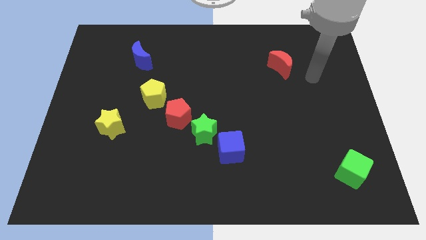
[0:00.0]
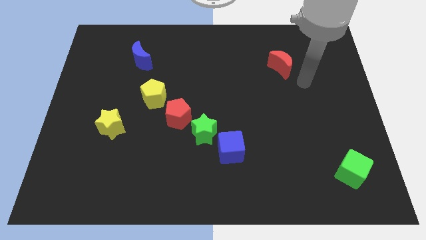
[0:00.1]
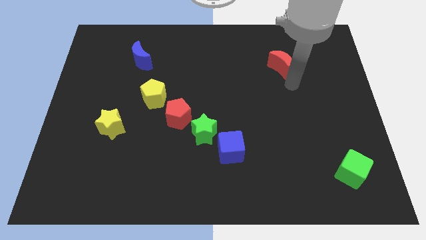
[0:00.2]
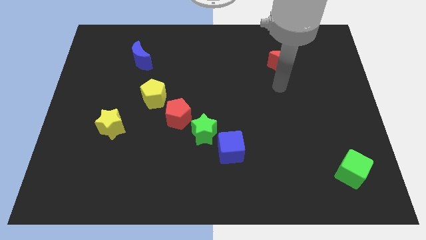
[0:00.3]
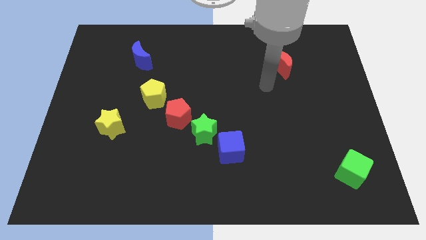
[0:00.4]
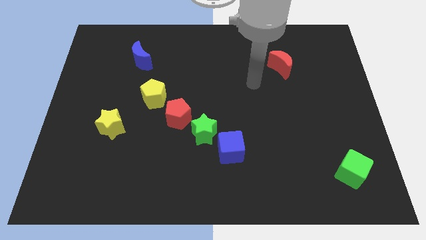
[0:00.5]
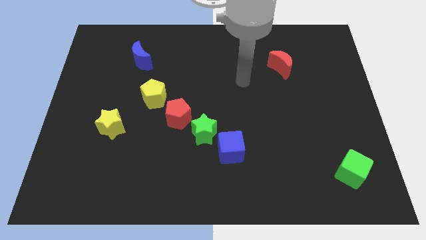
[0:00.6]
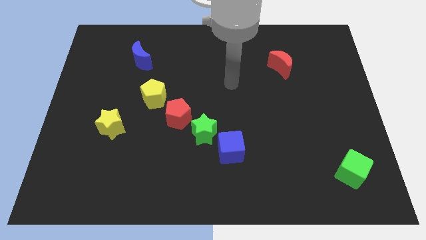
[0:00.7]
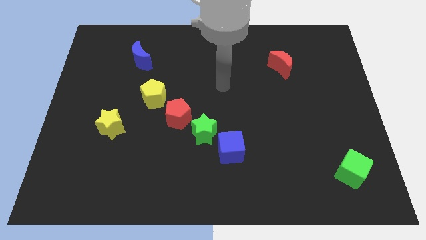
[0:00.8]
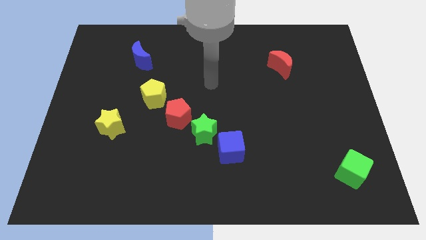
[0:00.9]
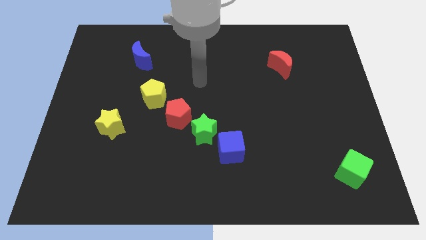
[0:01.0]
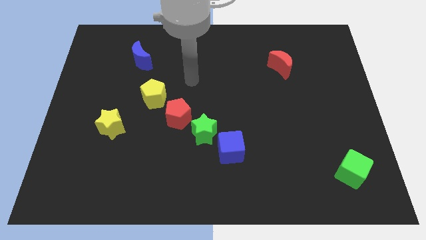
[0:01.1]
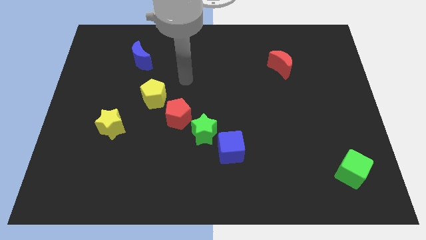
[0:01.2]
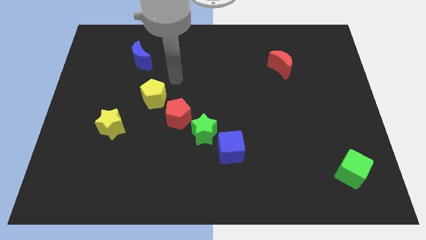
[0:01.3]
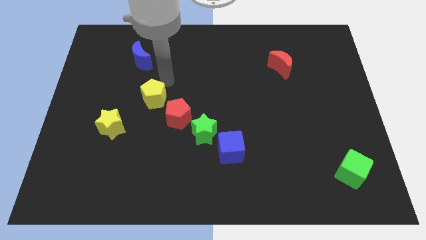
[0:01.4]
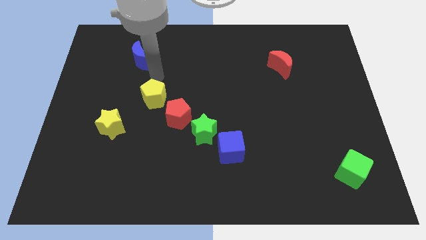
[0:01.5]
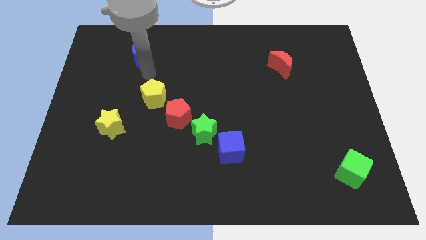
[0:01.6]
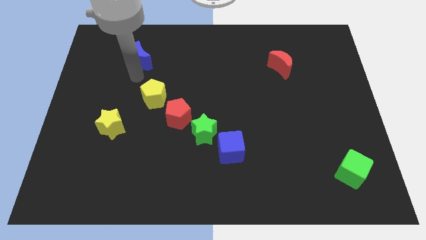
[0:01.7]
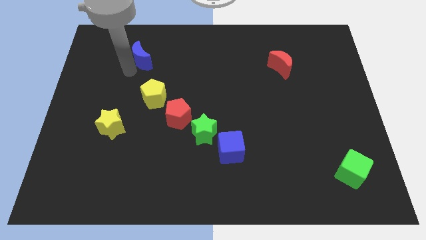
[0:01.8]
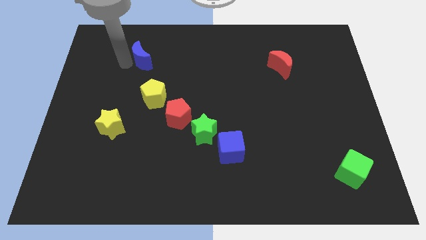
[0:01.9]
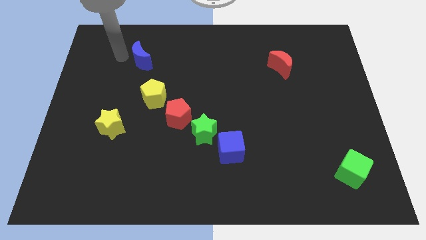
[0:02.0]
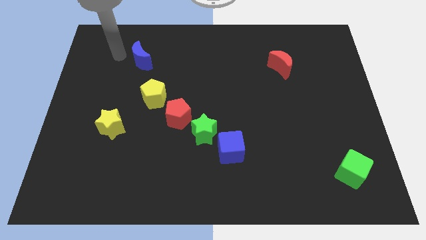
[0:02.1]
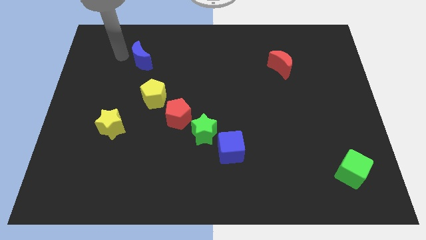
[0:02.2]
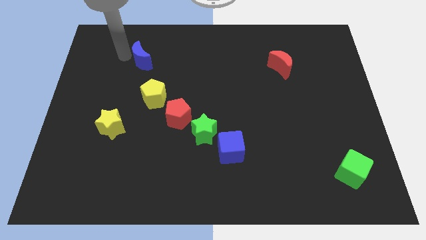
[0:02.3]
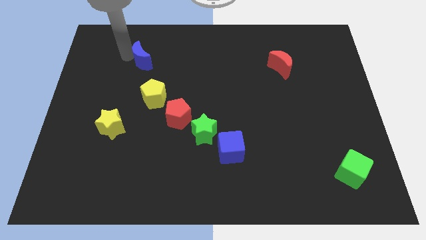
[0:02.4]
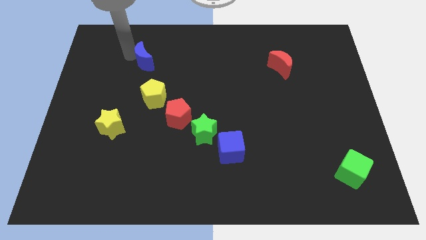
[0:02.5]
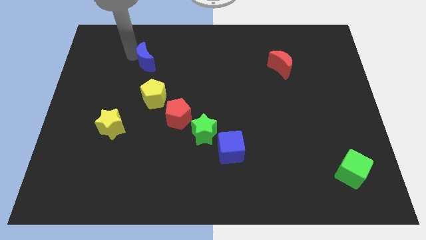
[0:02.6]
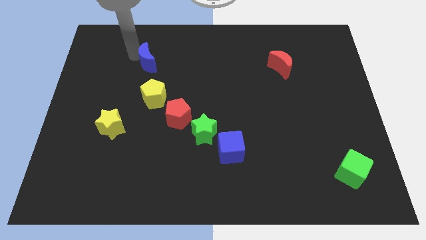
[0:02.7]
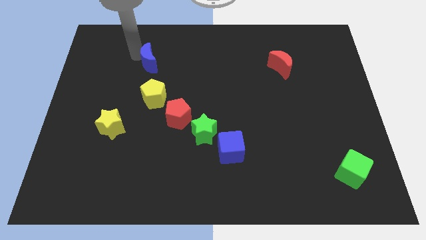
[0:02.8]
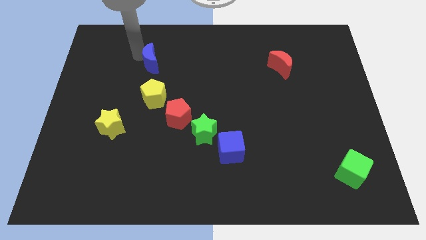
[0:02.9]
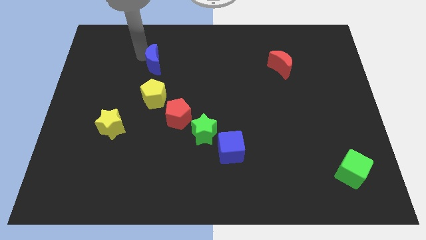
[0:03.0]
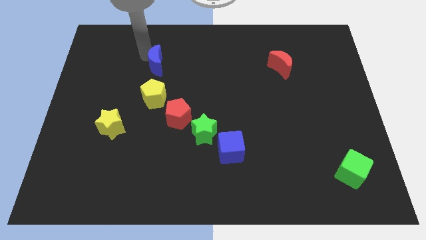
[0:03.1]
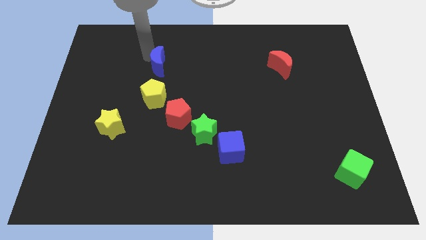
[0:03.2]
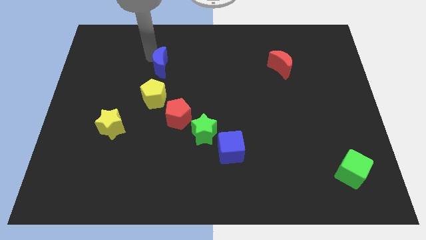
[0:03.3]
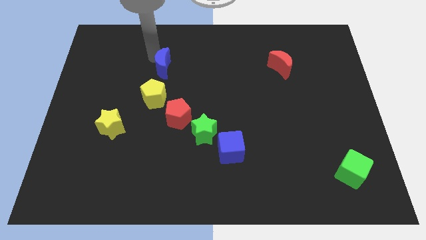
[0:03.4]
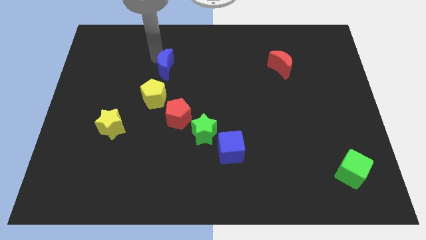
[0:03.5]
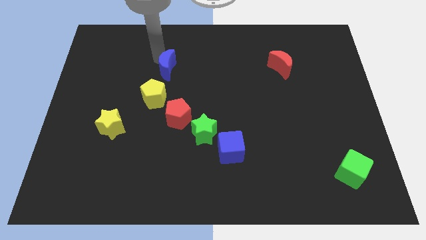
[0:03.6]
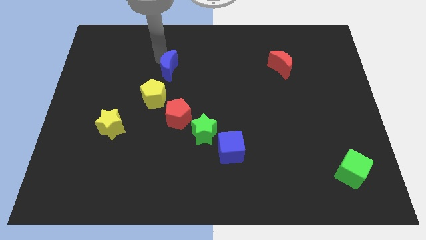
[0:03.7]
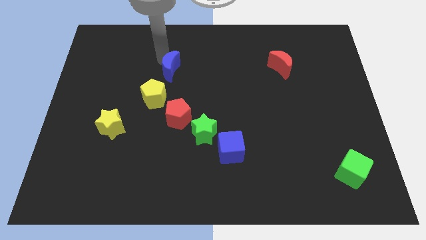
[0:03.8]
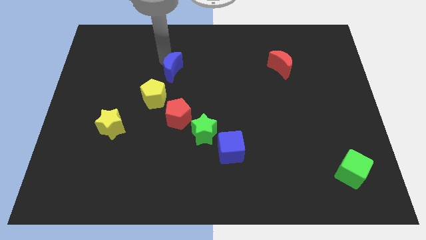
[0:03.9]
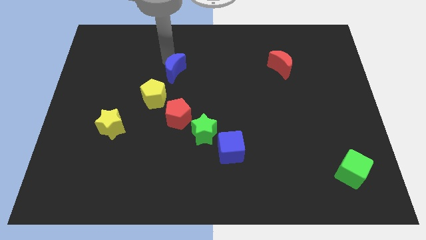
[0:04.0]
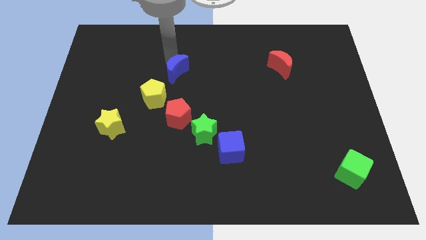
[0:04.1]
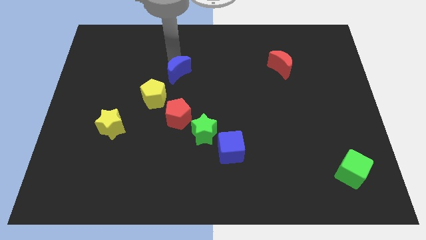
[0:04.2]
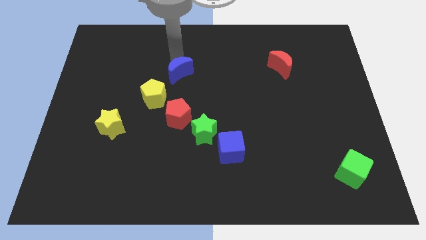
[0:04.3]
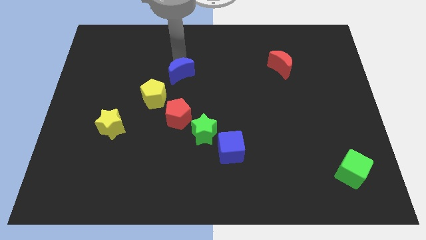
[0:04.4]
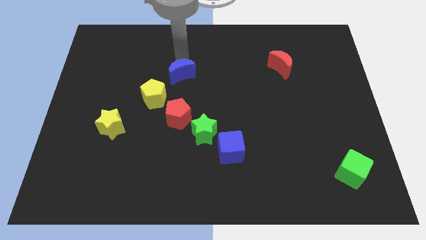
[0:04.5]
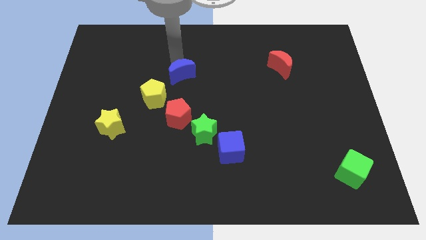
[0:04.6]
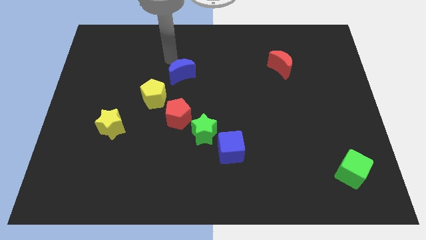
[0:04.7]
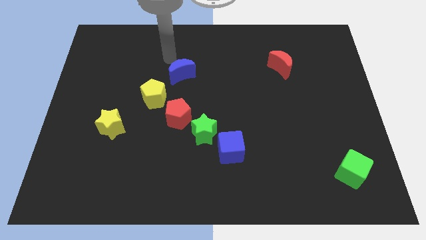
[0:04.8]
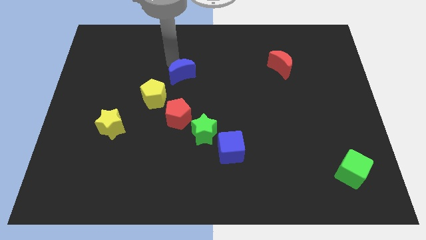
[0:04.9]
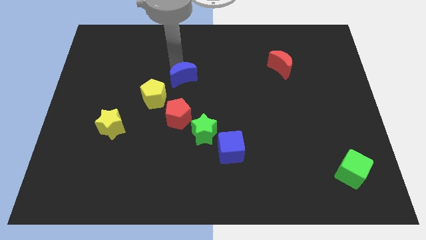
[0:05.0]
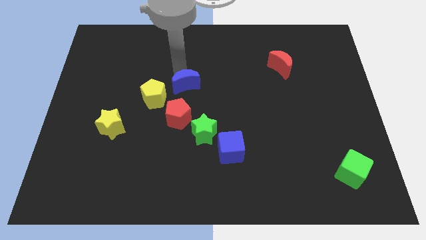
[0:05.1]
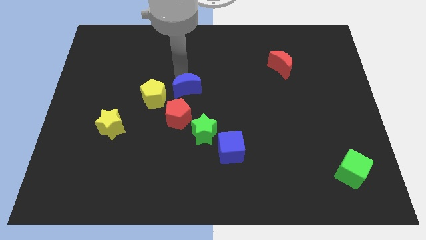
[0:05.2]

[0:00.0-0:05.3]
move the blue moon diagonally up and to the right of the red pentagon

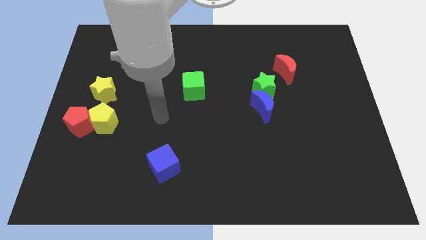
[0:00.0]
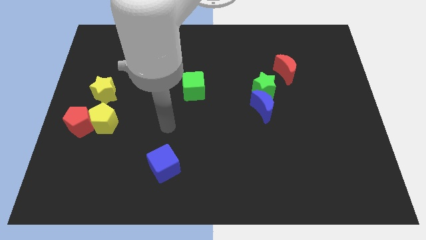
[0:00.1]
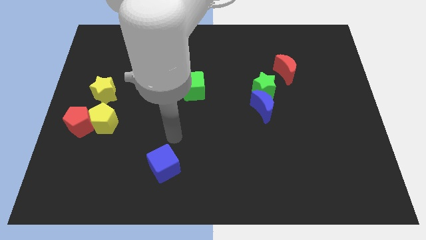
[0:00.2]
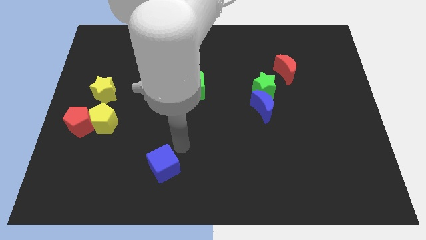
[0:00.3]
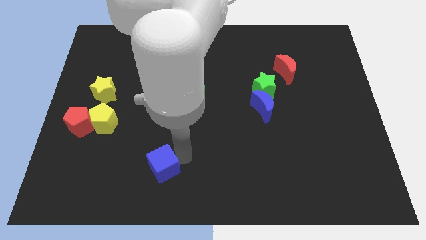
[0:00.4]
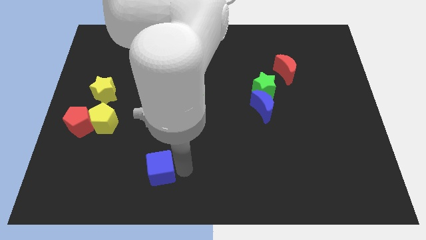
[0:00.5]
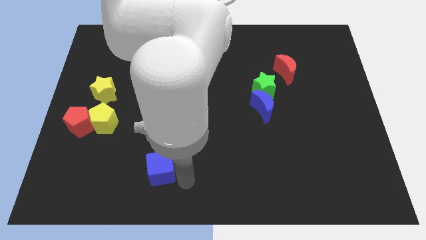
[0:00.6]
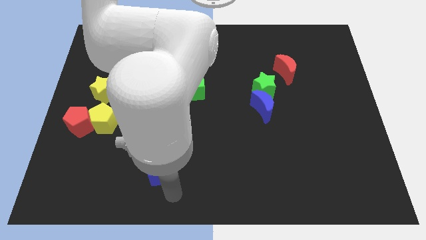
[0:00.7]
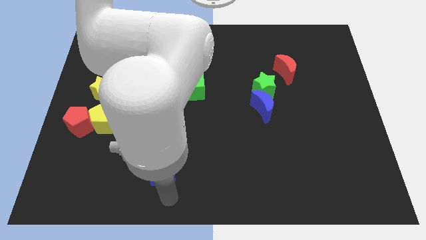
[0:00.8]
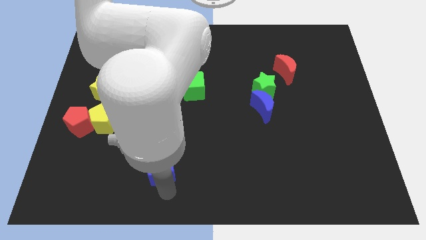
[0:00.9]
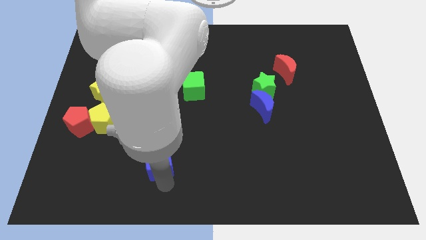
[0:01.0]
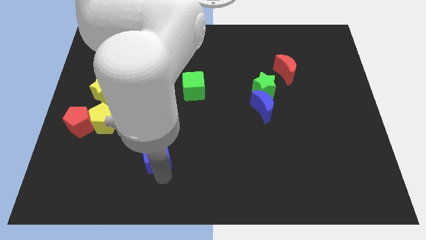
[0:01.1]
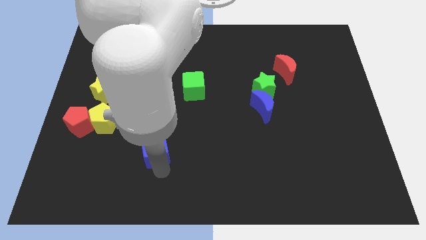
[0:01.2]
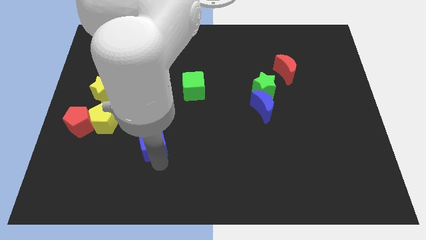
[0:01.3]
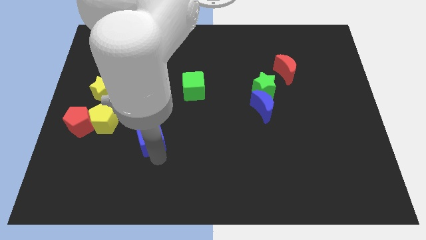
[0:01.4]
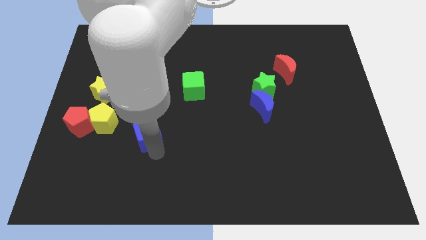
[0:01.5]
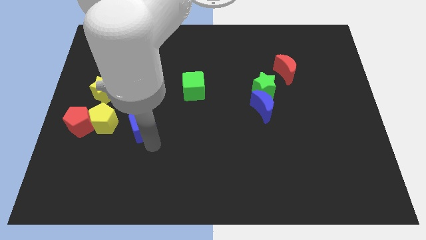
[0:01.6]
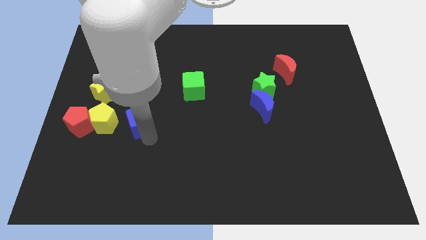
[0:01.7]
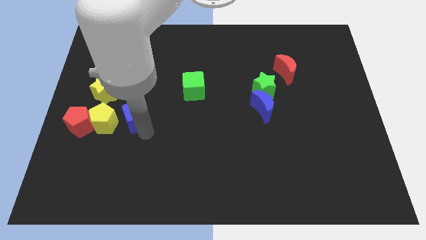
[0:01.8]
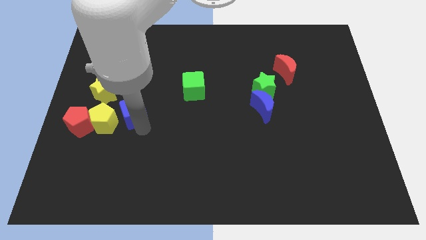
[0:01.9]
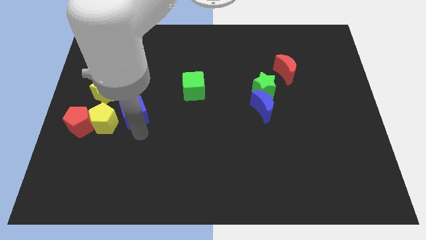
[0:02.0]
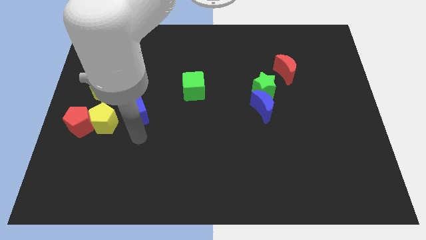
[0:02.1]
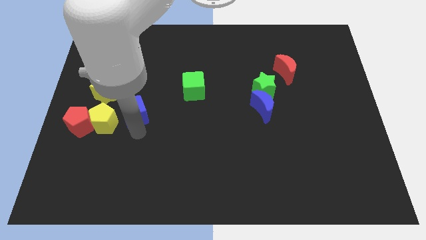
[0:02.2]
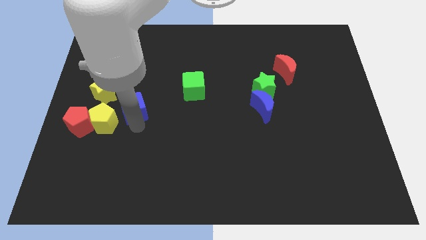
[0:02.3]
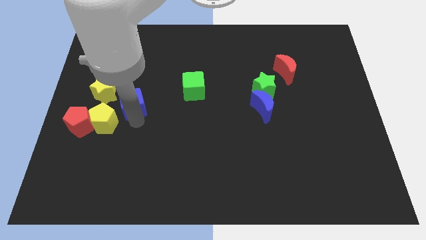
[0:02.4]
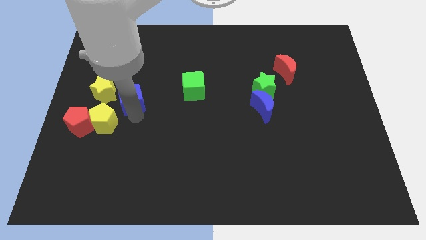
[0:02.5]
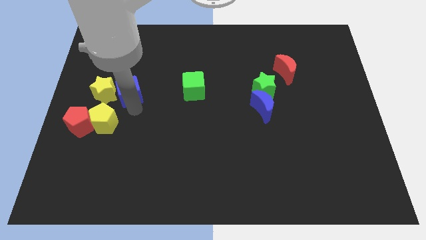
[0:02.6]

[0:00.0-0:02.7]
put the blue cube diagonally up and to the right of the yellow star
